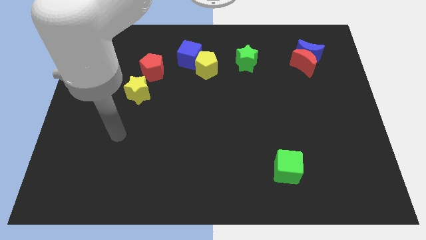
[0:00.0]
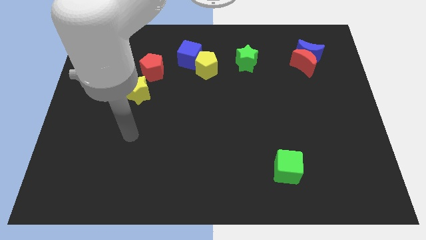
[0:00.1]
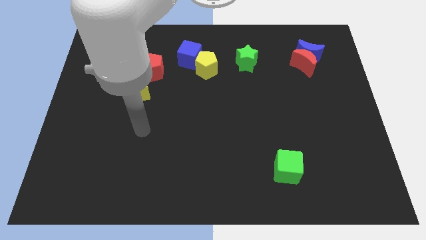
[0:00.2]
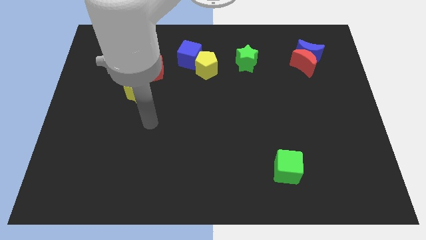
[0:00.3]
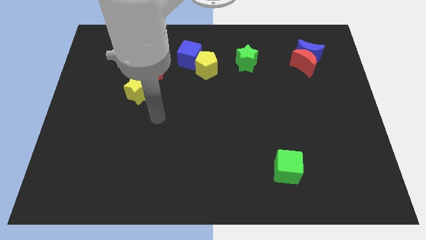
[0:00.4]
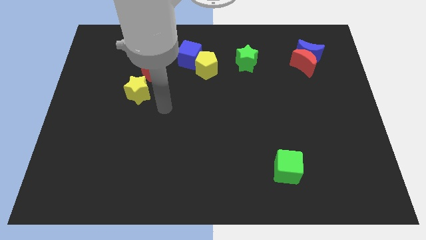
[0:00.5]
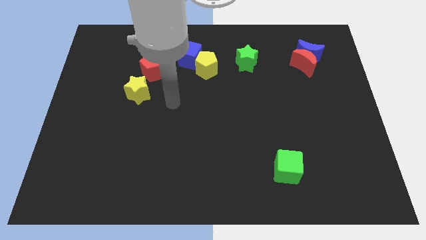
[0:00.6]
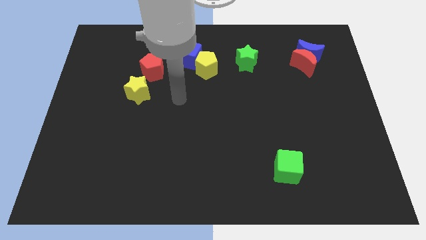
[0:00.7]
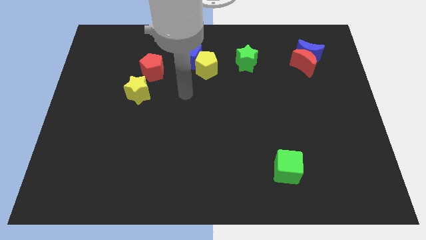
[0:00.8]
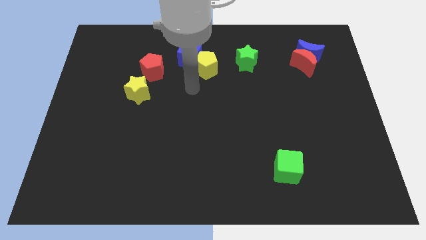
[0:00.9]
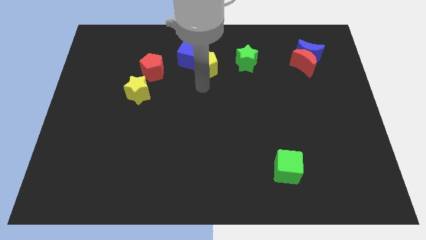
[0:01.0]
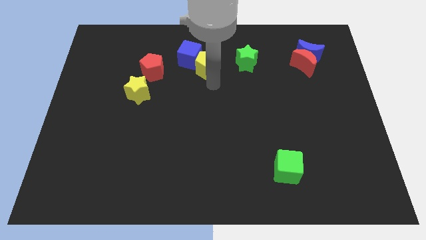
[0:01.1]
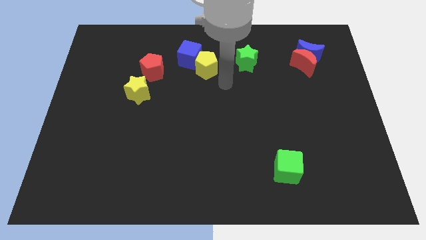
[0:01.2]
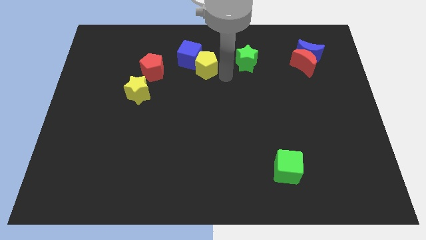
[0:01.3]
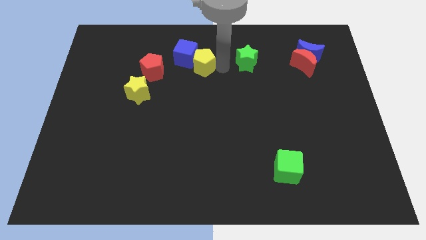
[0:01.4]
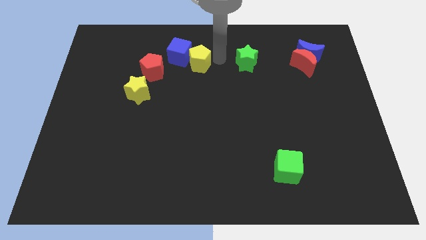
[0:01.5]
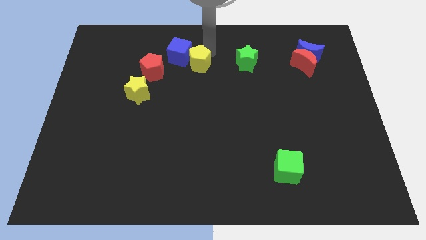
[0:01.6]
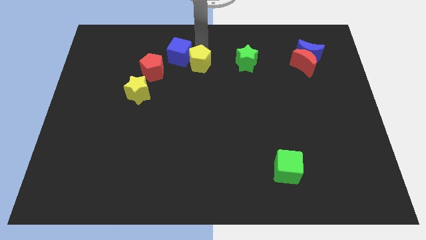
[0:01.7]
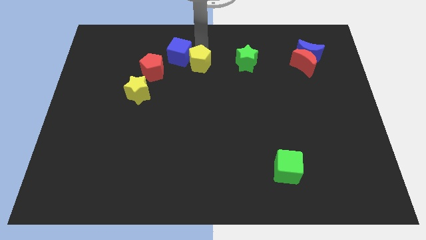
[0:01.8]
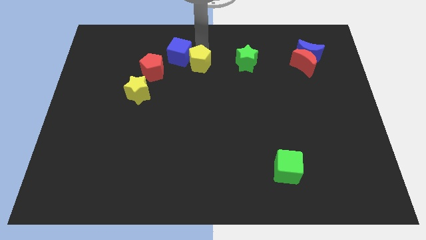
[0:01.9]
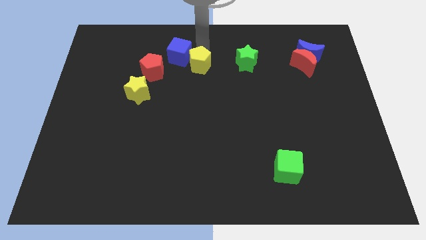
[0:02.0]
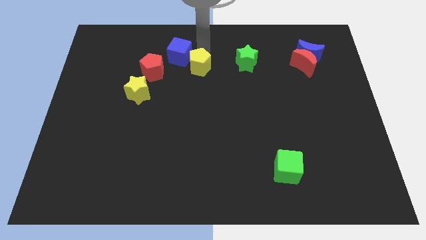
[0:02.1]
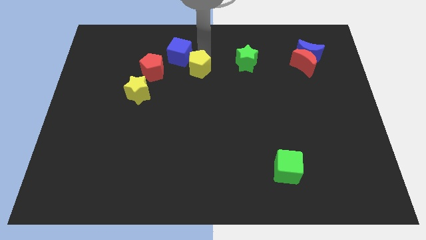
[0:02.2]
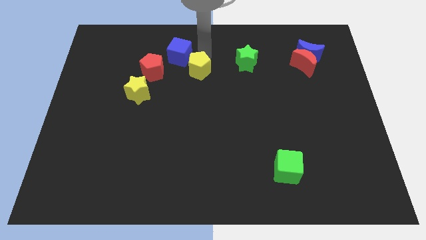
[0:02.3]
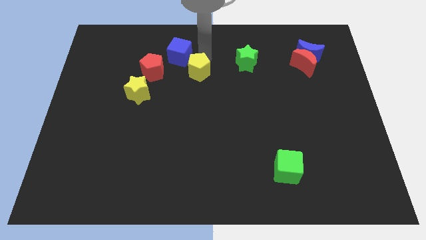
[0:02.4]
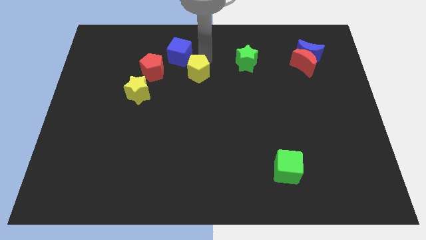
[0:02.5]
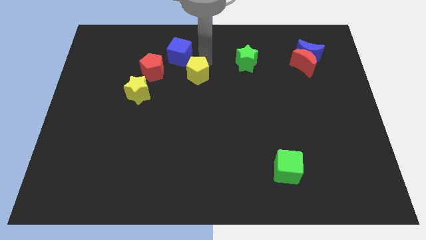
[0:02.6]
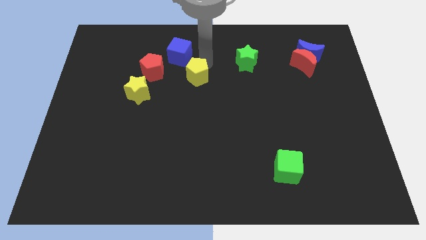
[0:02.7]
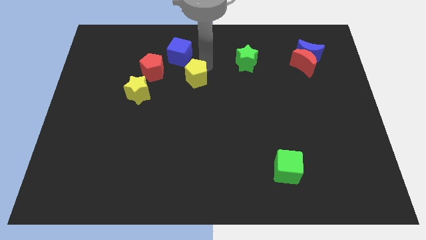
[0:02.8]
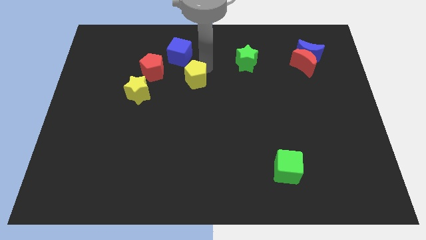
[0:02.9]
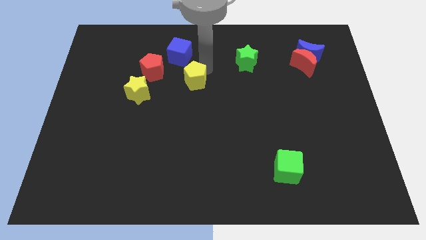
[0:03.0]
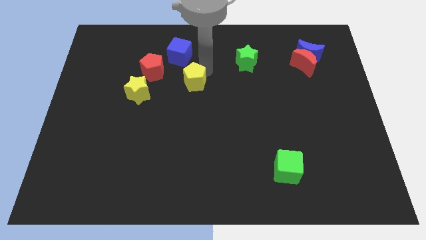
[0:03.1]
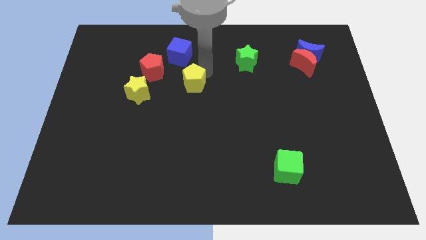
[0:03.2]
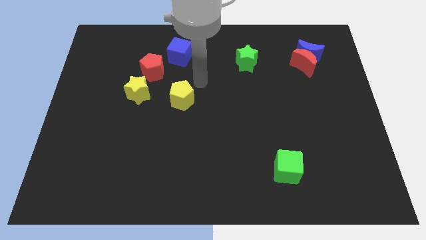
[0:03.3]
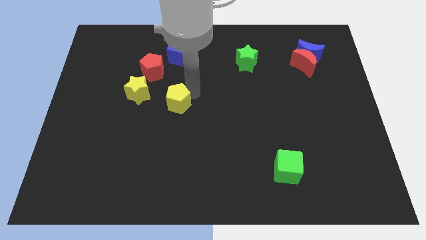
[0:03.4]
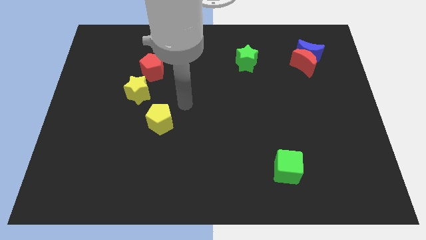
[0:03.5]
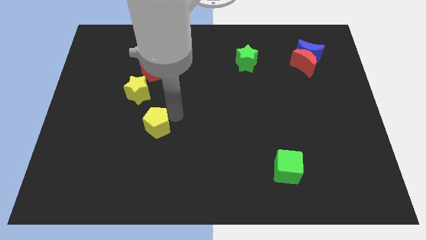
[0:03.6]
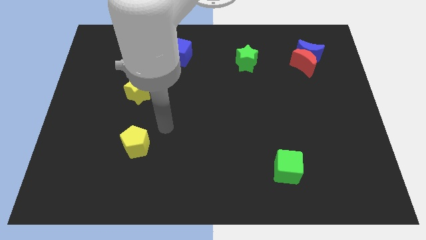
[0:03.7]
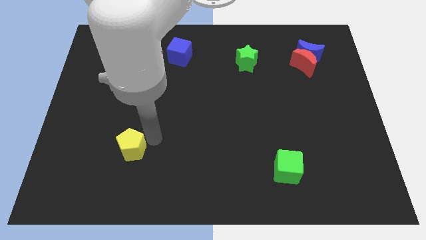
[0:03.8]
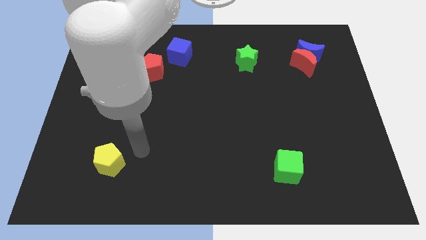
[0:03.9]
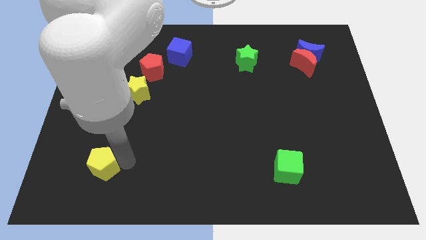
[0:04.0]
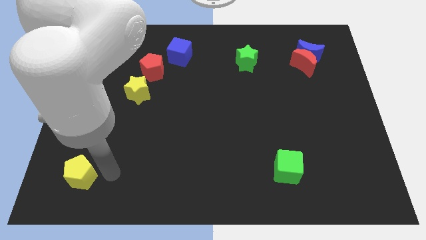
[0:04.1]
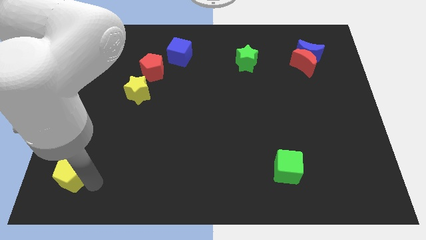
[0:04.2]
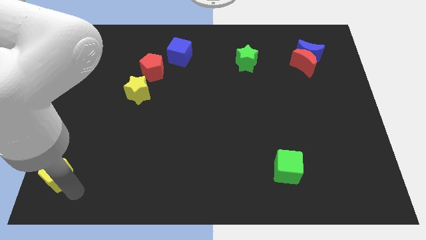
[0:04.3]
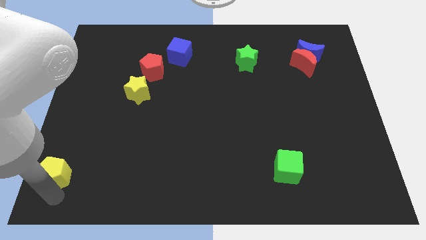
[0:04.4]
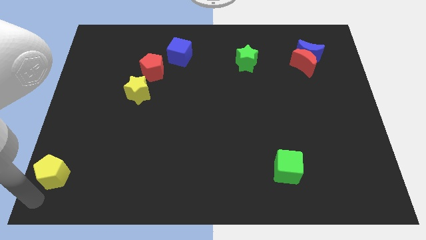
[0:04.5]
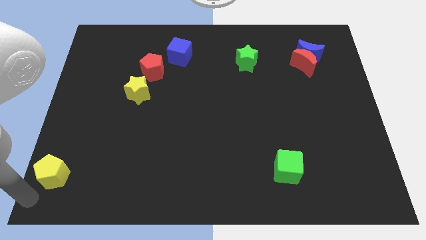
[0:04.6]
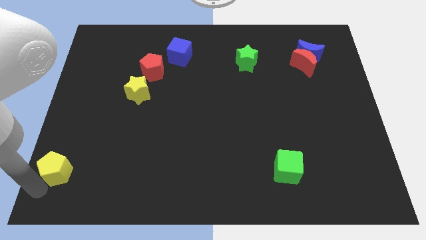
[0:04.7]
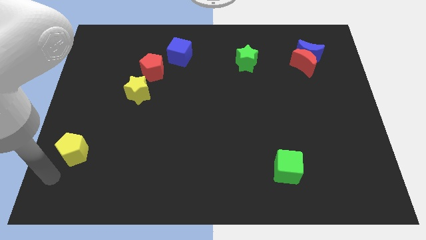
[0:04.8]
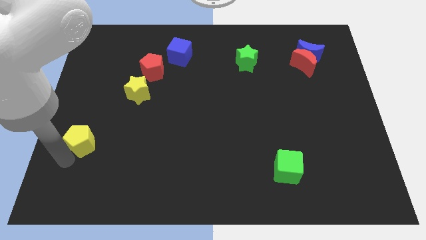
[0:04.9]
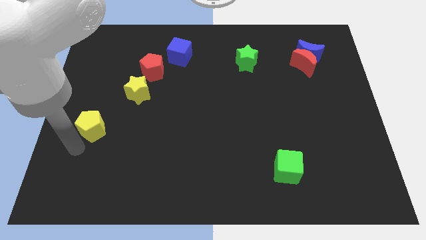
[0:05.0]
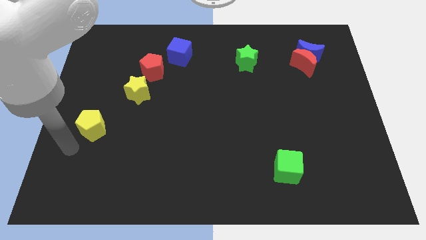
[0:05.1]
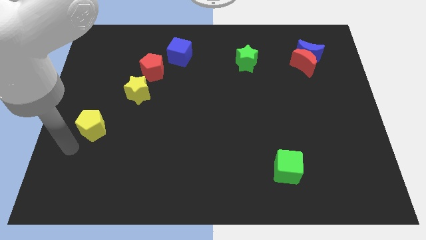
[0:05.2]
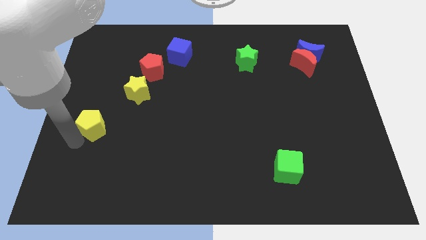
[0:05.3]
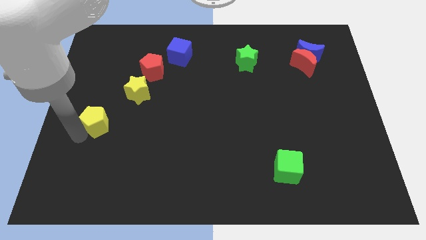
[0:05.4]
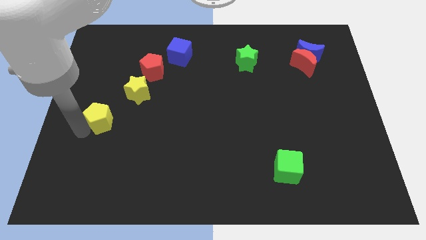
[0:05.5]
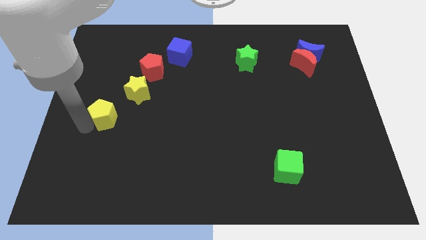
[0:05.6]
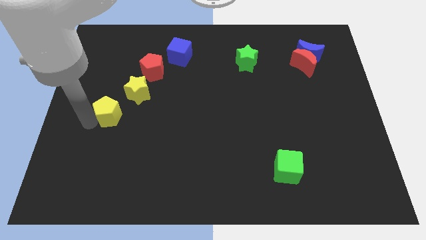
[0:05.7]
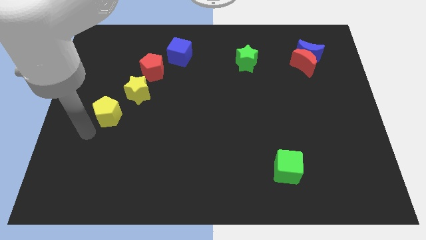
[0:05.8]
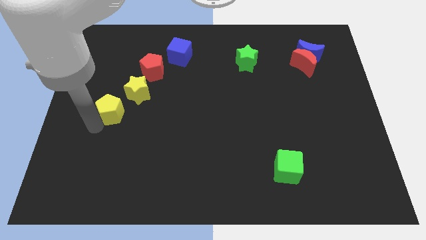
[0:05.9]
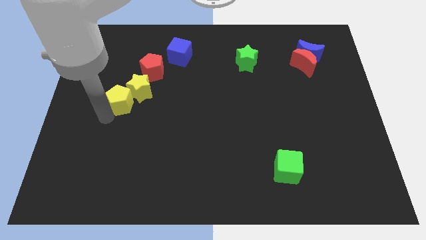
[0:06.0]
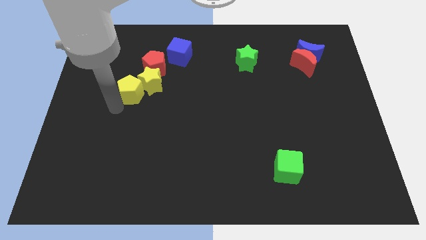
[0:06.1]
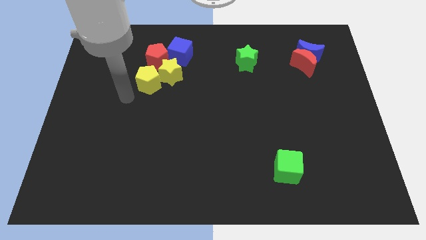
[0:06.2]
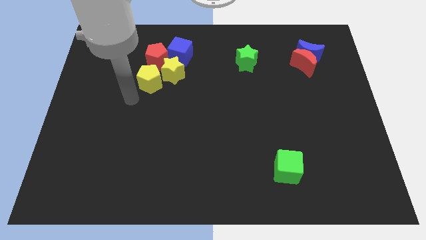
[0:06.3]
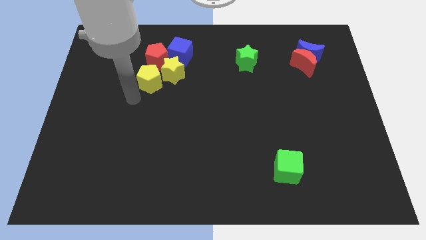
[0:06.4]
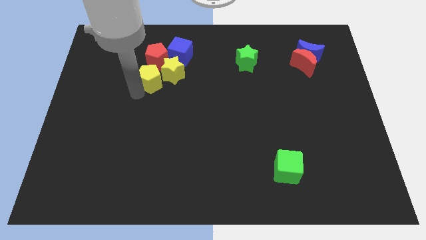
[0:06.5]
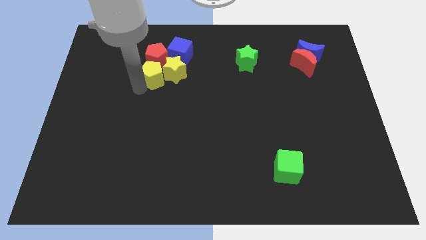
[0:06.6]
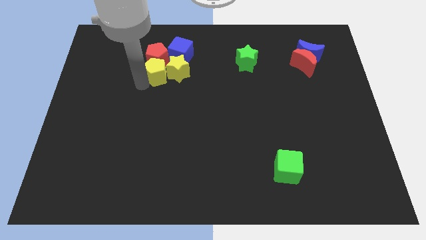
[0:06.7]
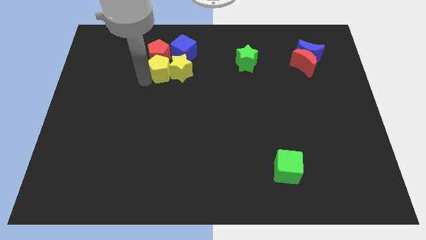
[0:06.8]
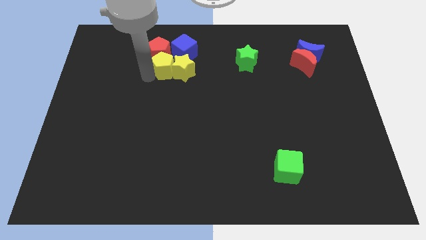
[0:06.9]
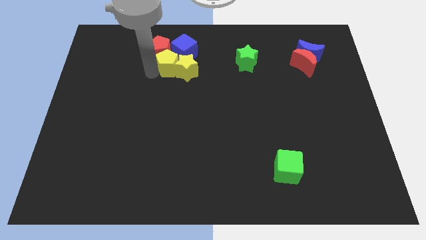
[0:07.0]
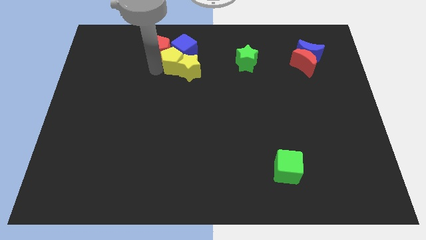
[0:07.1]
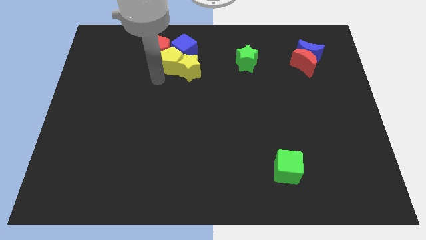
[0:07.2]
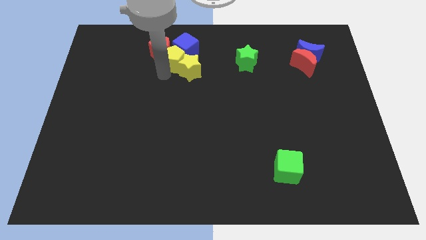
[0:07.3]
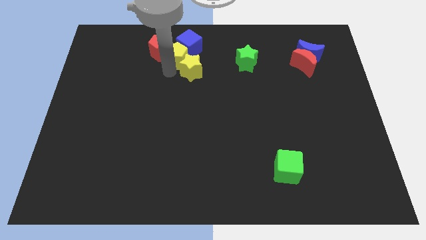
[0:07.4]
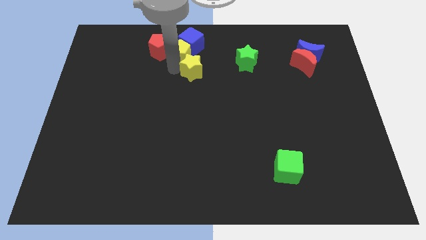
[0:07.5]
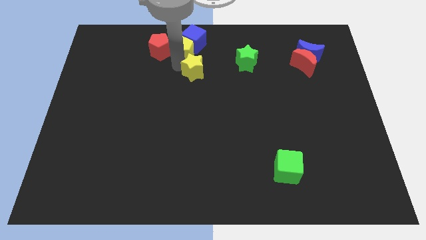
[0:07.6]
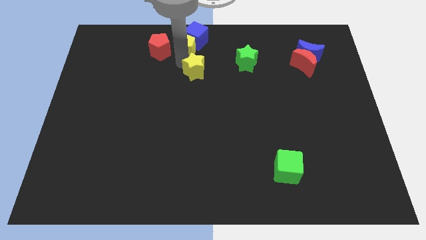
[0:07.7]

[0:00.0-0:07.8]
move the yellow pentagon to the top
